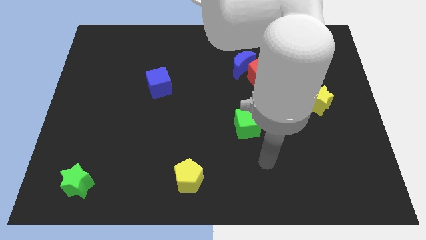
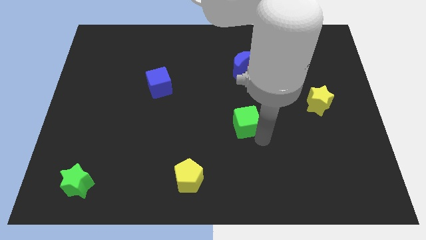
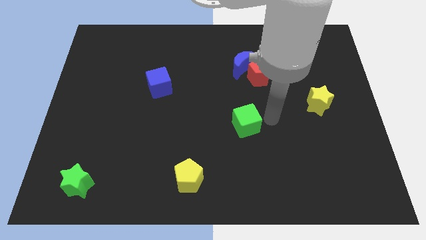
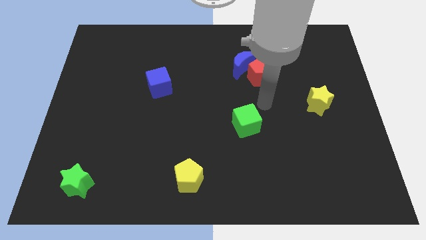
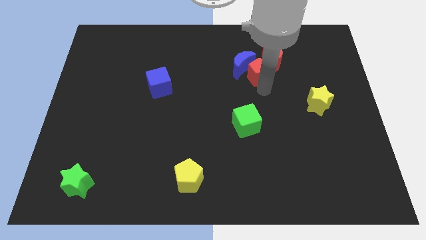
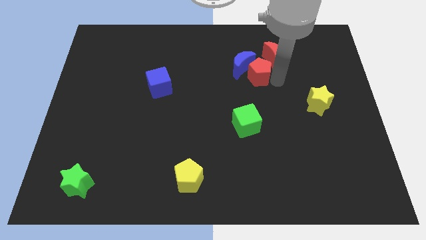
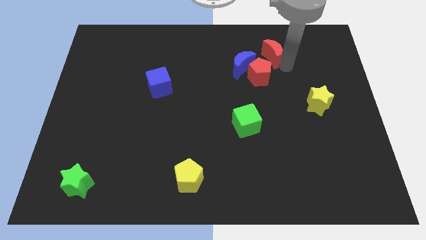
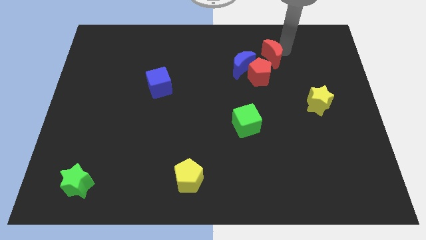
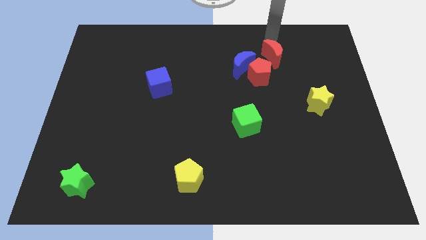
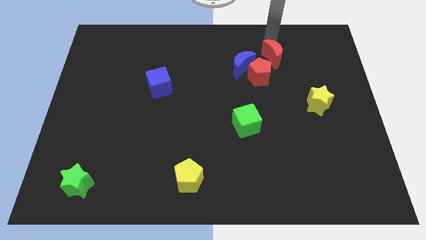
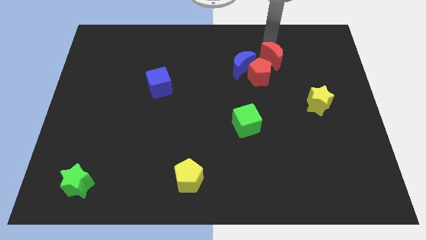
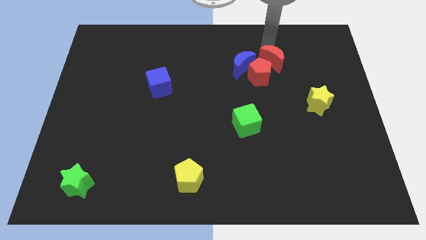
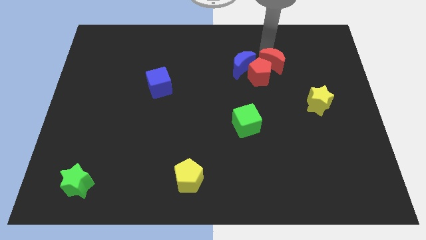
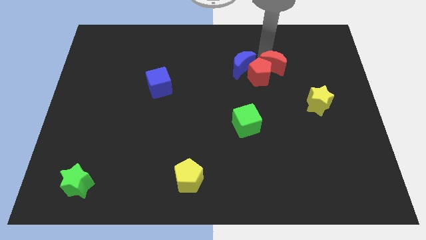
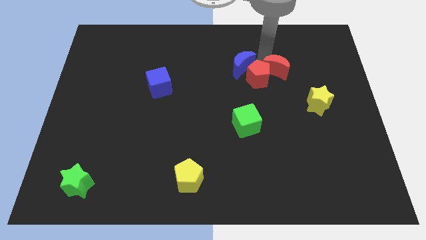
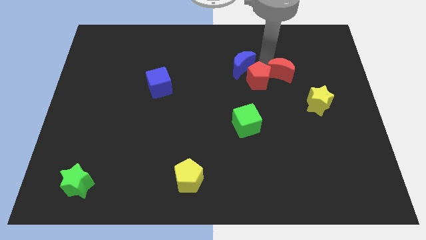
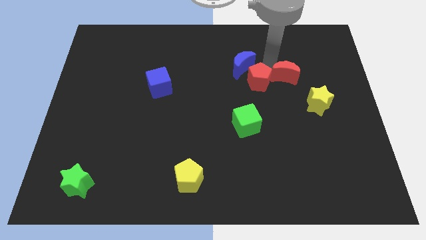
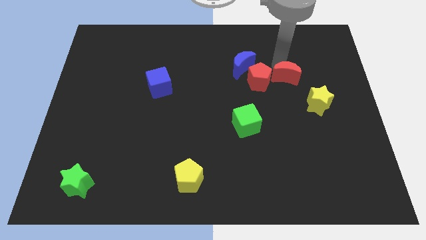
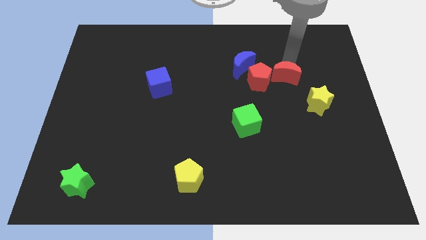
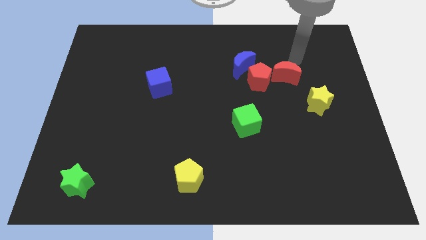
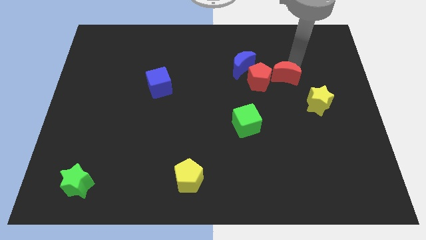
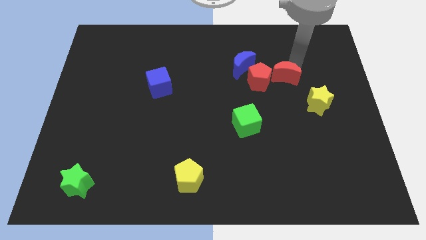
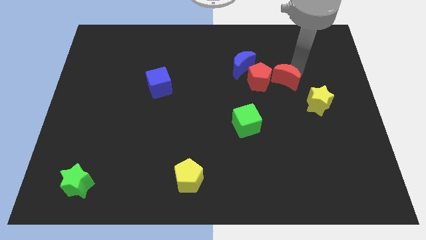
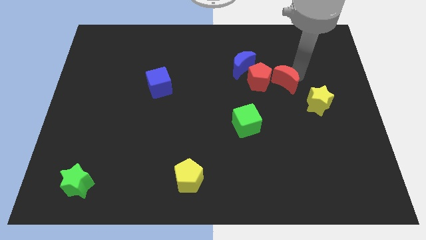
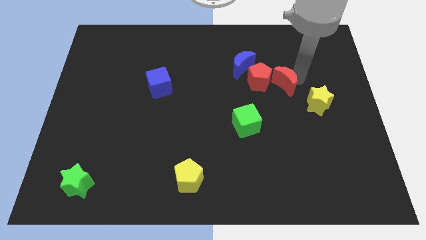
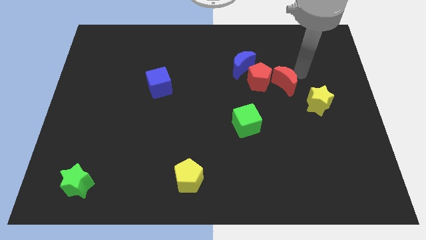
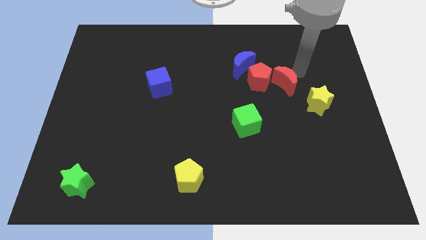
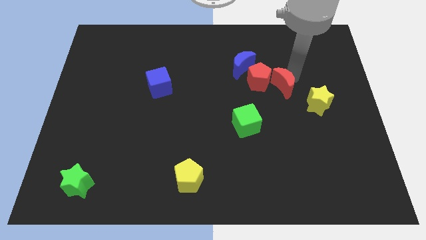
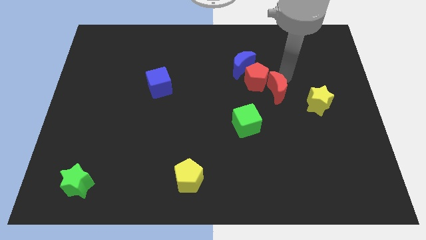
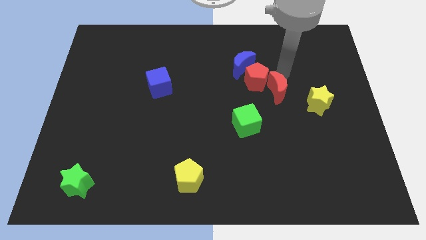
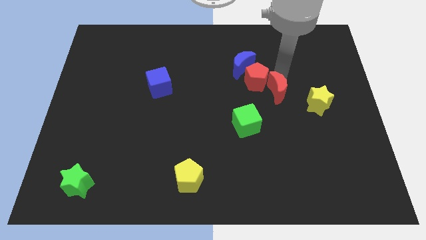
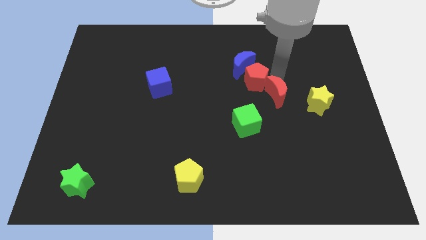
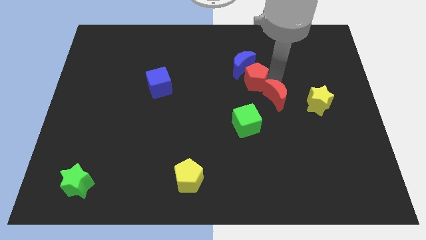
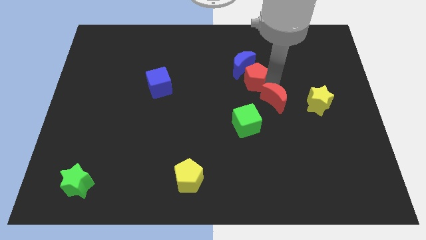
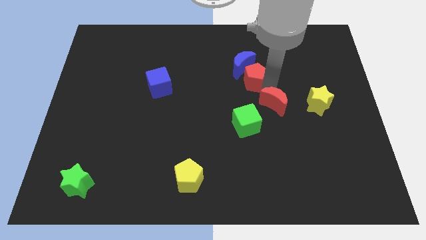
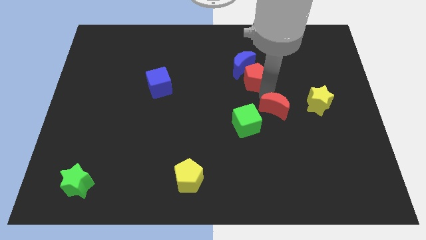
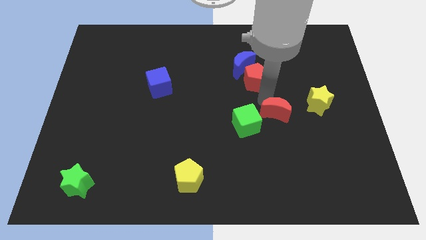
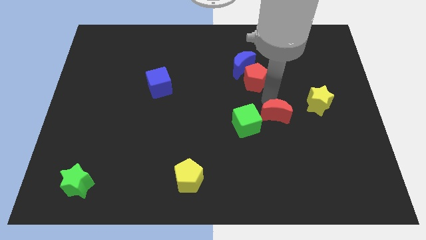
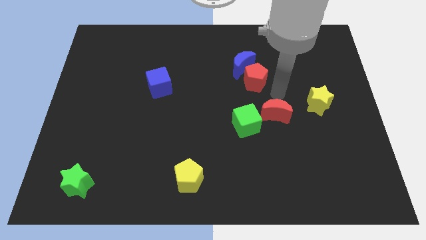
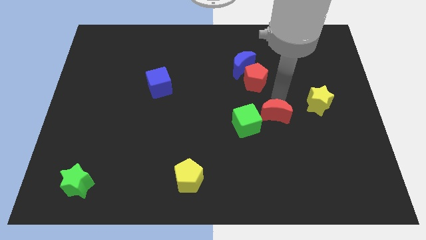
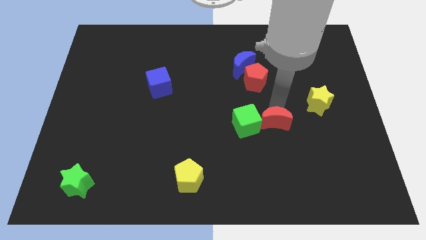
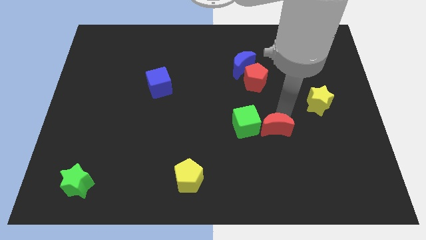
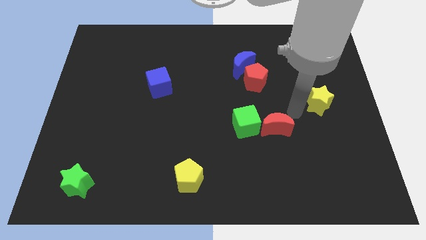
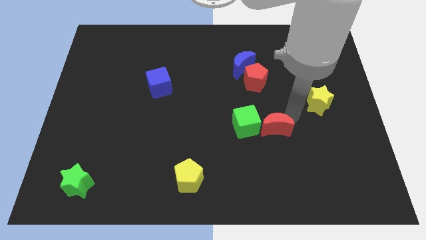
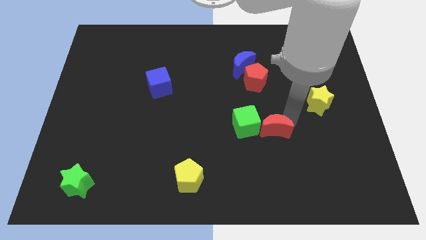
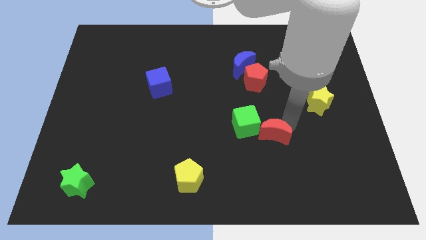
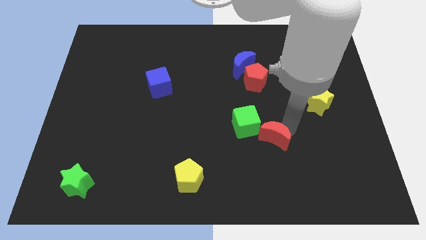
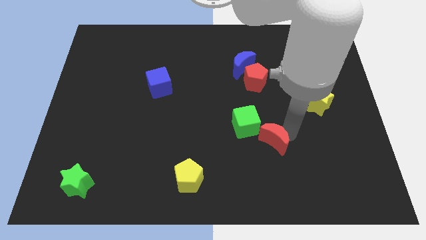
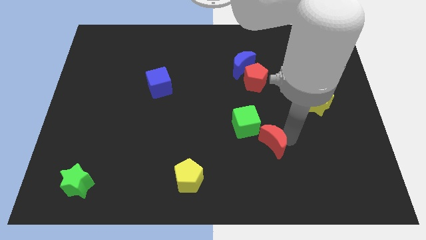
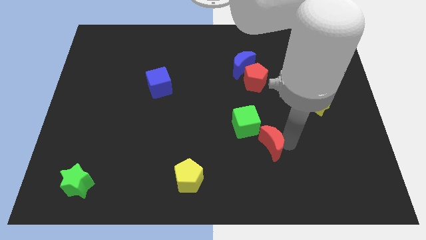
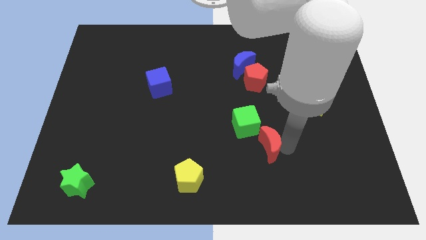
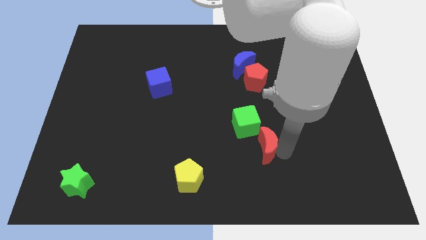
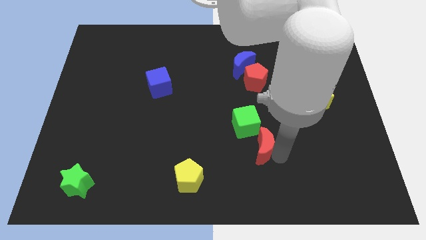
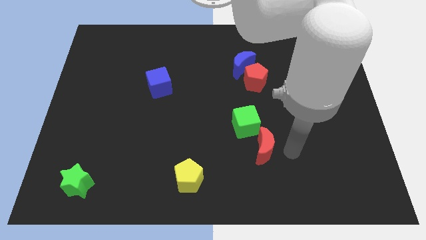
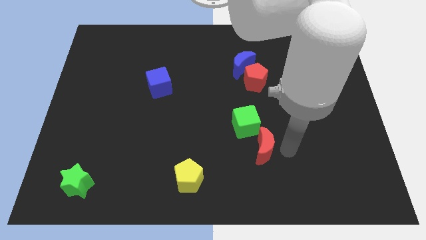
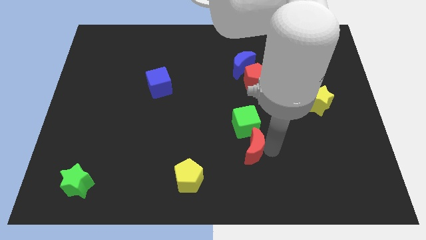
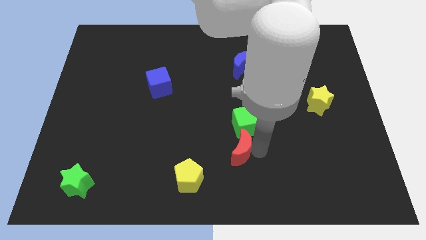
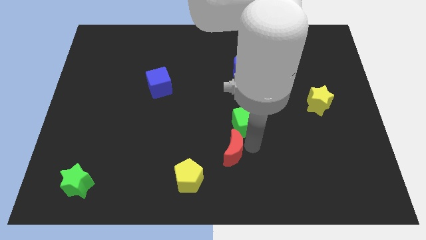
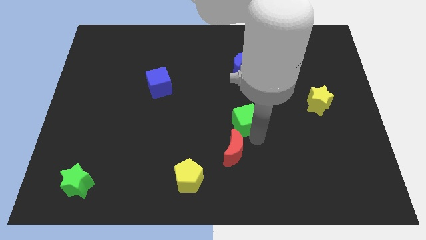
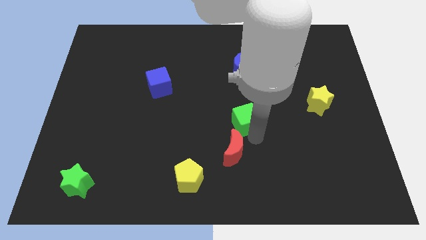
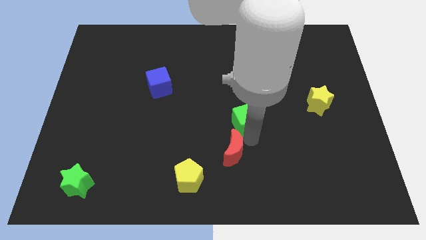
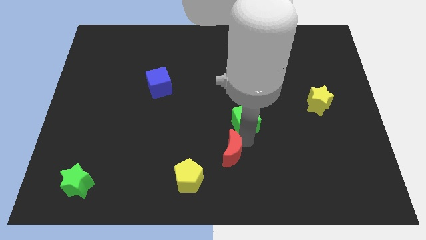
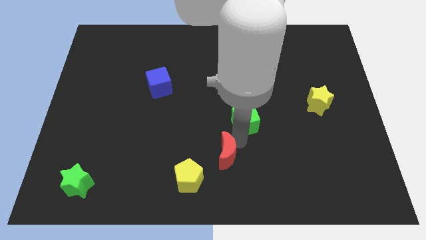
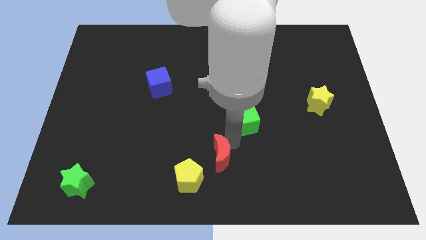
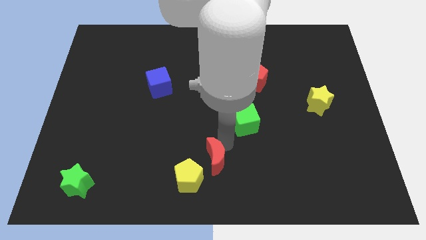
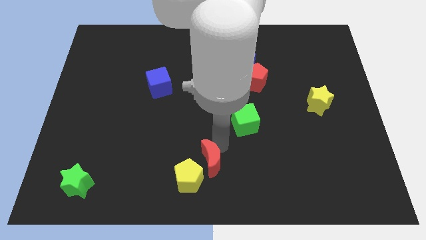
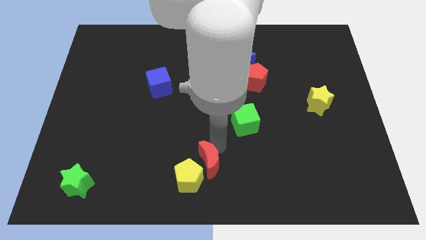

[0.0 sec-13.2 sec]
push the red moon to the yellow pentagon
